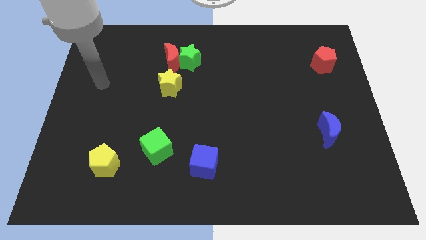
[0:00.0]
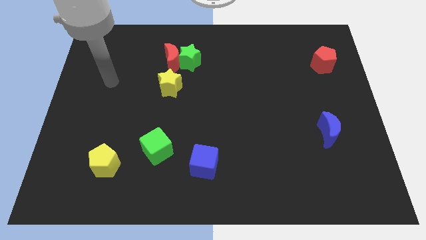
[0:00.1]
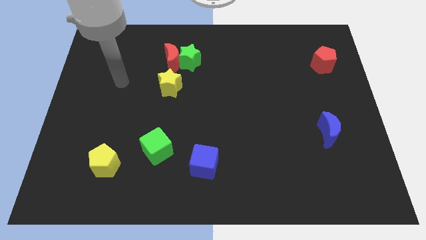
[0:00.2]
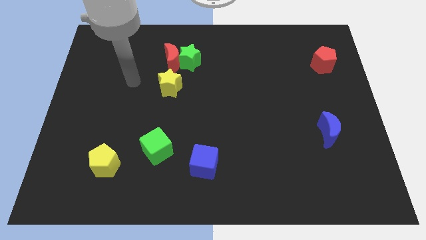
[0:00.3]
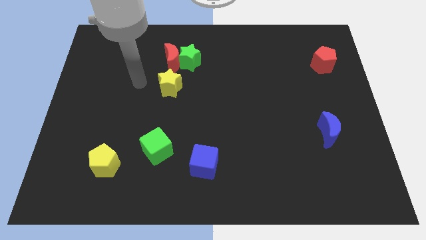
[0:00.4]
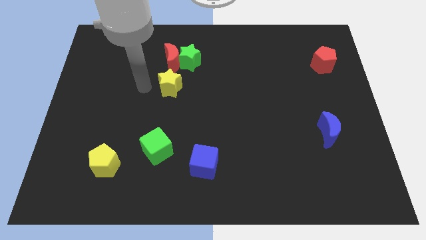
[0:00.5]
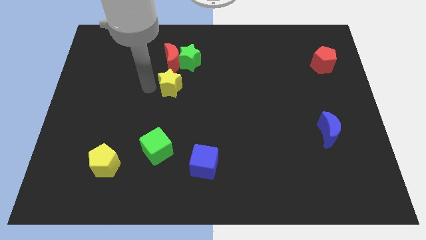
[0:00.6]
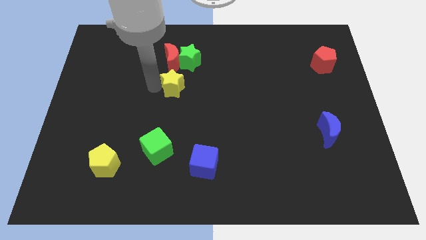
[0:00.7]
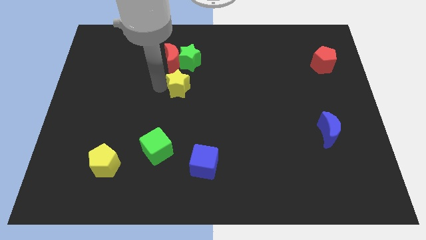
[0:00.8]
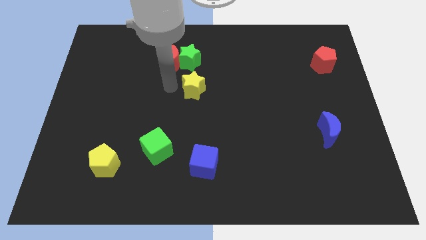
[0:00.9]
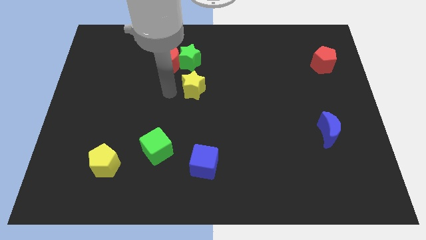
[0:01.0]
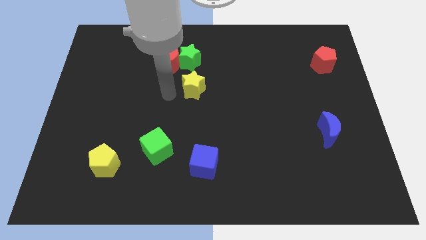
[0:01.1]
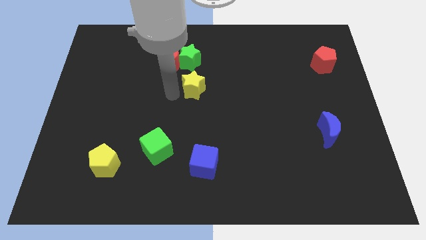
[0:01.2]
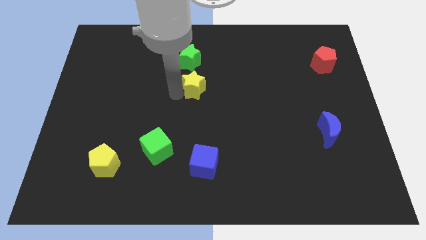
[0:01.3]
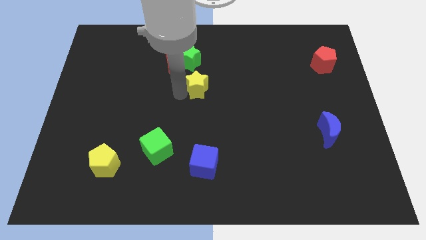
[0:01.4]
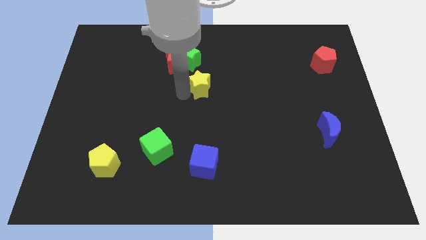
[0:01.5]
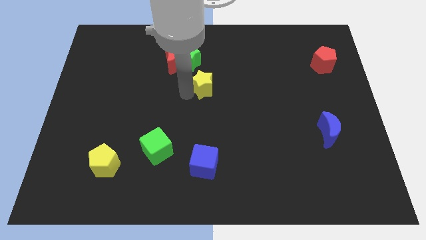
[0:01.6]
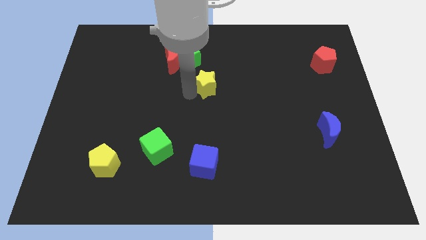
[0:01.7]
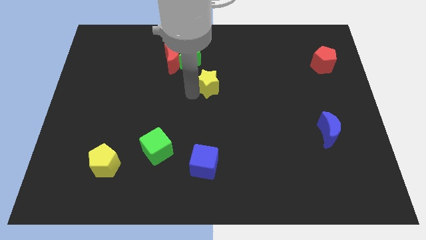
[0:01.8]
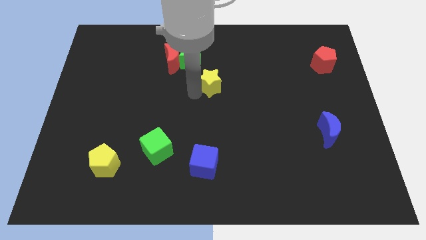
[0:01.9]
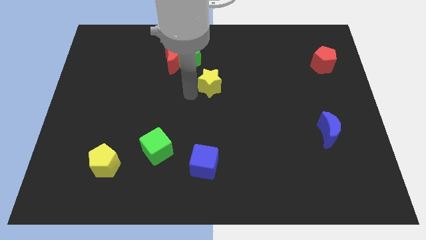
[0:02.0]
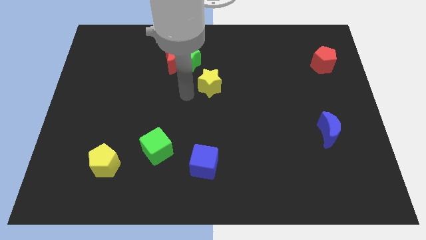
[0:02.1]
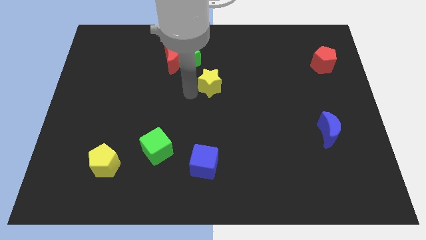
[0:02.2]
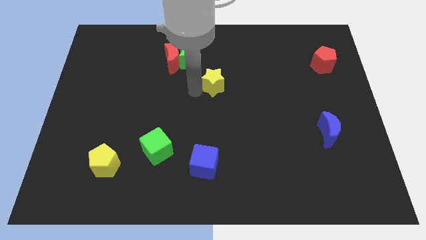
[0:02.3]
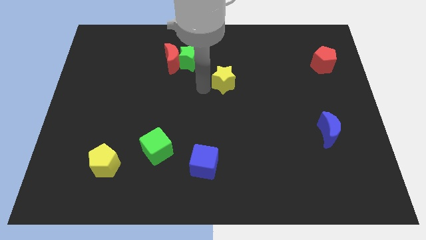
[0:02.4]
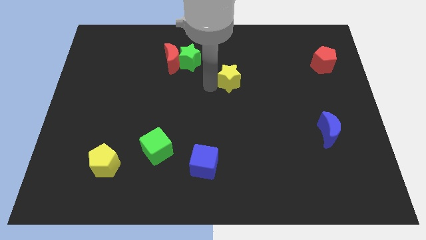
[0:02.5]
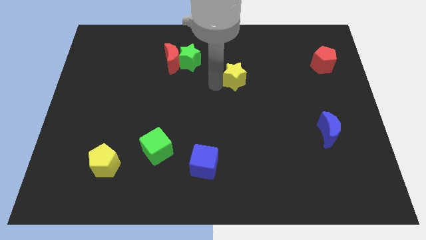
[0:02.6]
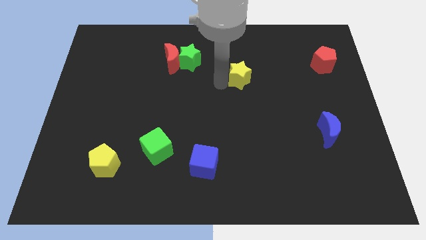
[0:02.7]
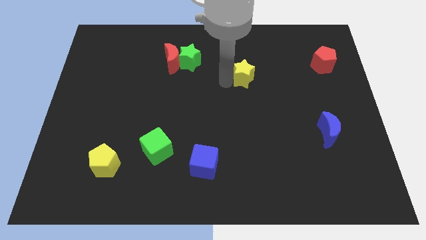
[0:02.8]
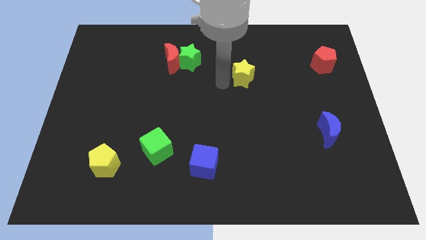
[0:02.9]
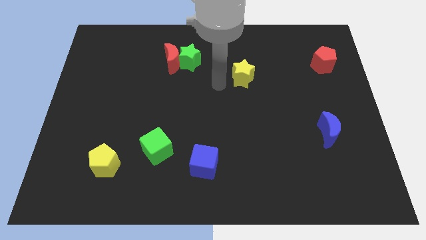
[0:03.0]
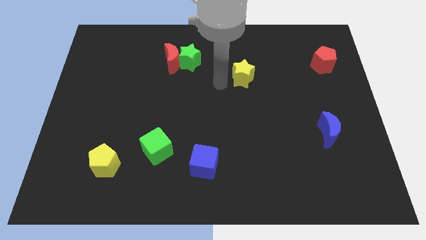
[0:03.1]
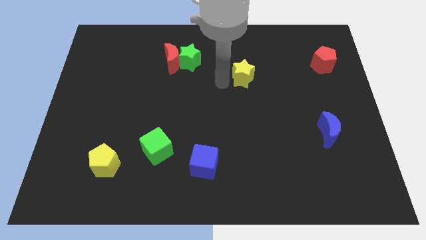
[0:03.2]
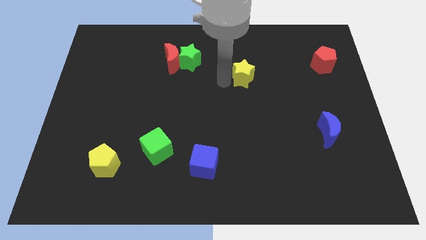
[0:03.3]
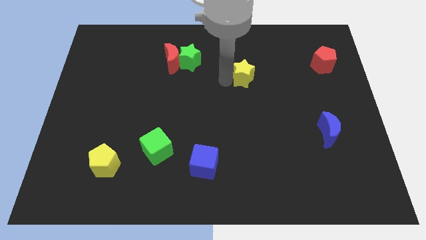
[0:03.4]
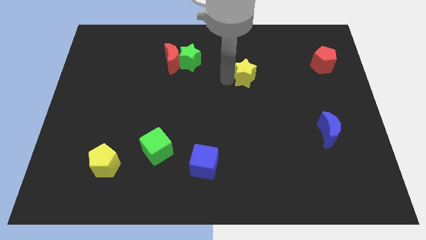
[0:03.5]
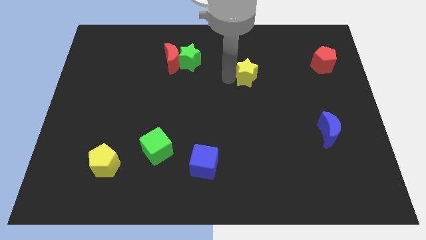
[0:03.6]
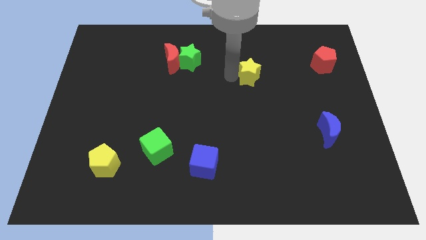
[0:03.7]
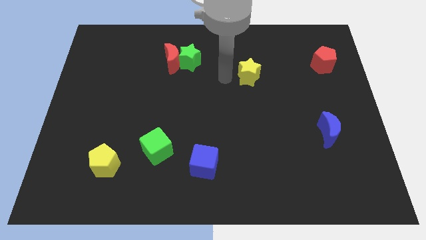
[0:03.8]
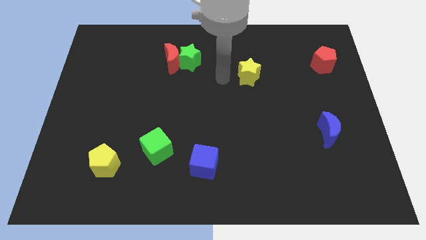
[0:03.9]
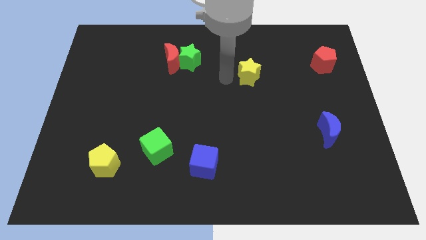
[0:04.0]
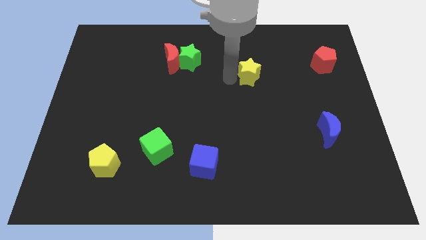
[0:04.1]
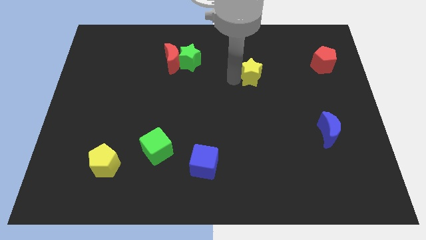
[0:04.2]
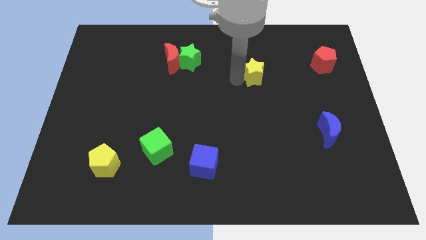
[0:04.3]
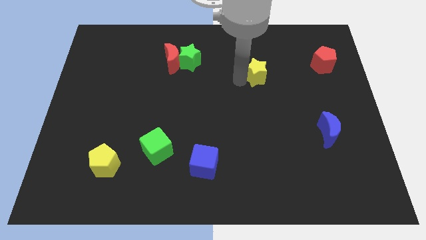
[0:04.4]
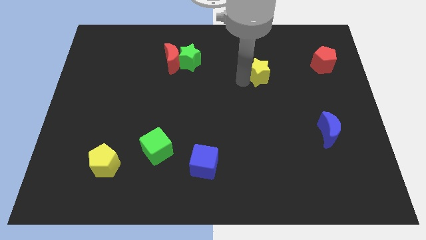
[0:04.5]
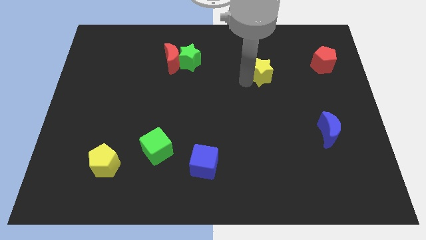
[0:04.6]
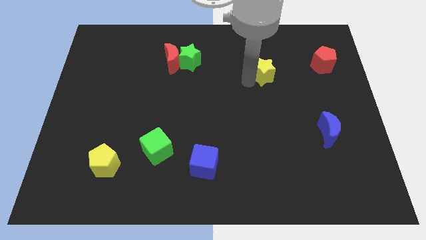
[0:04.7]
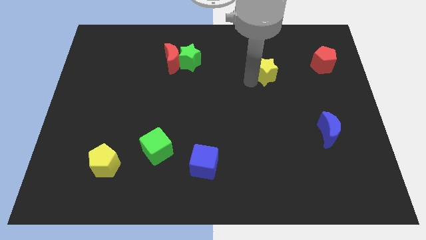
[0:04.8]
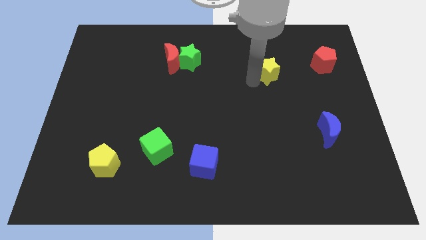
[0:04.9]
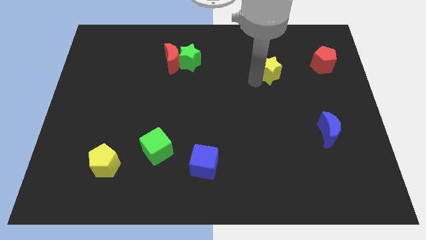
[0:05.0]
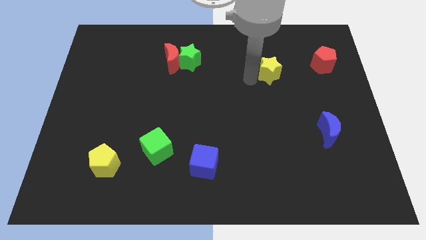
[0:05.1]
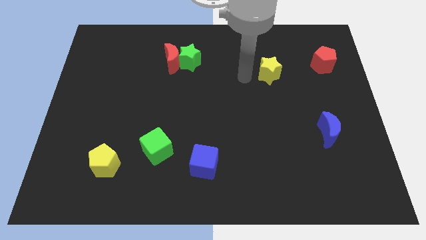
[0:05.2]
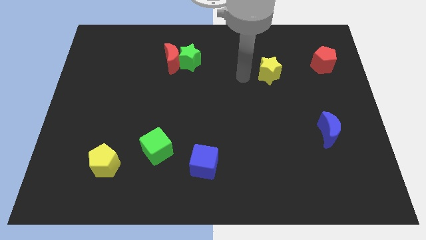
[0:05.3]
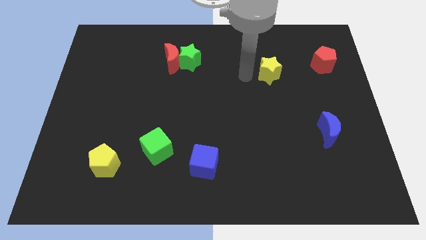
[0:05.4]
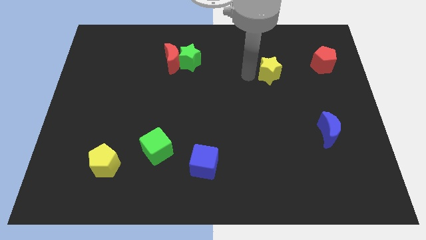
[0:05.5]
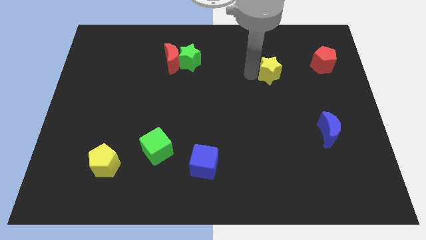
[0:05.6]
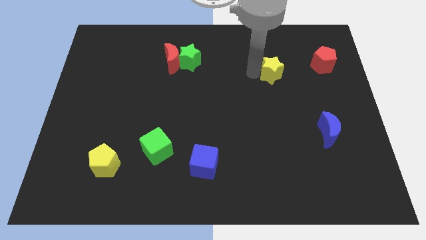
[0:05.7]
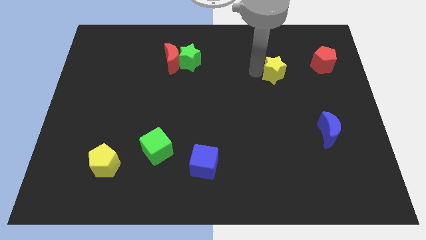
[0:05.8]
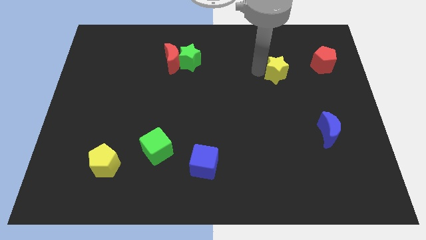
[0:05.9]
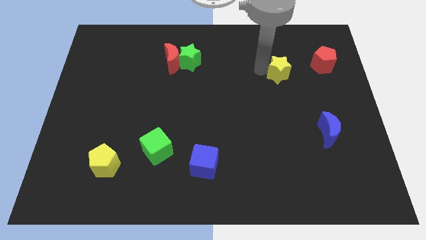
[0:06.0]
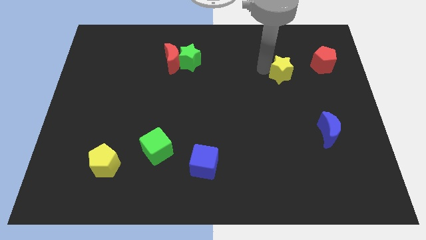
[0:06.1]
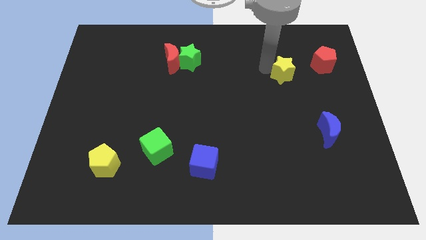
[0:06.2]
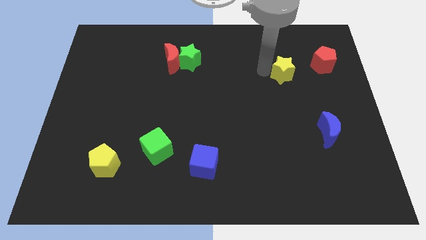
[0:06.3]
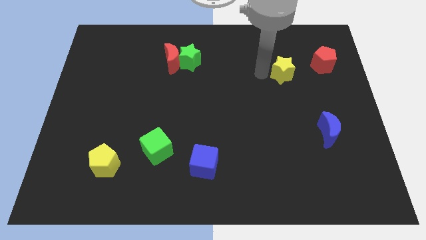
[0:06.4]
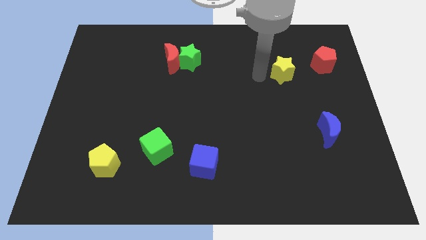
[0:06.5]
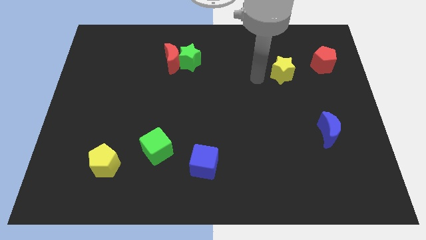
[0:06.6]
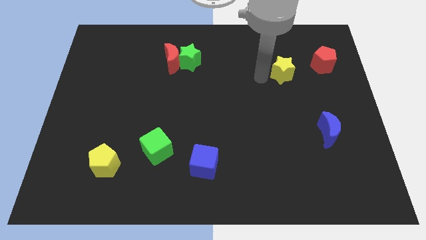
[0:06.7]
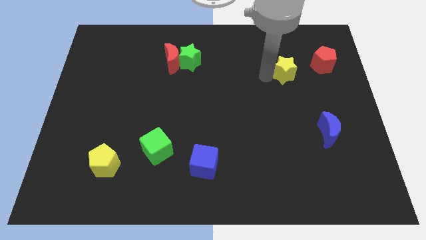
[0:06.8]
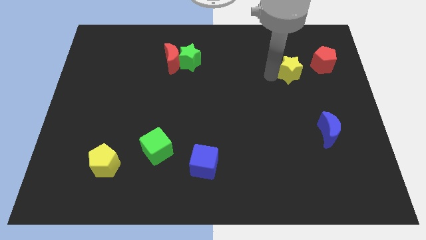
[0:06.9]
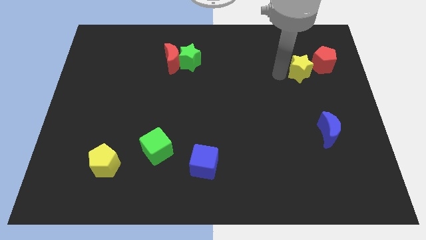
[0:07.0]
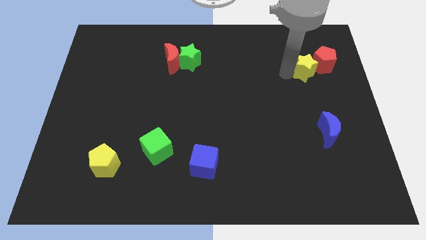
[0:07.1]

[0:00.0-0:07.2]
slide the yellow star close to the red pentagon

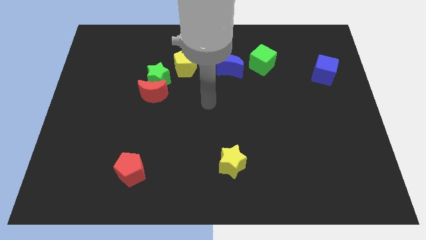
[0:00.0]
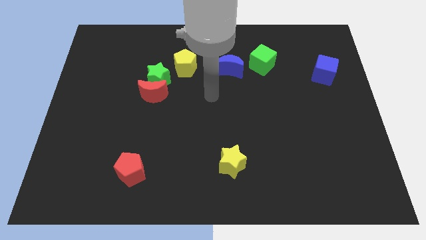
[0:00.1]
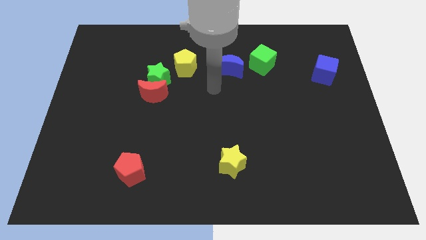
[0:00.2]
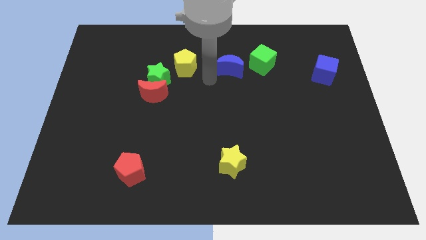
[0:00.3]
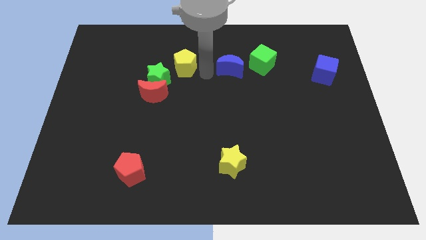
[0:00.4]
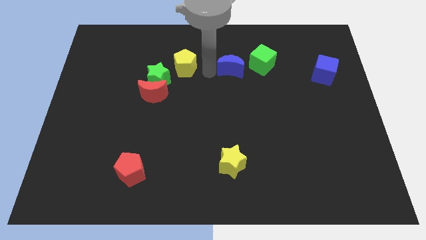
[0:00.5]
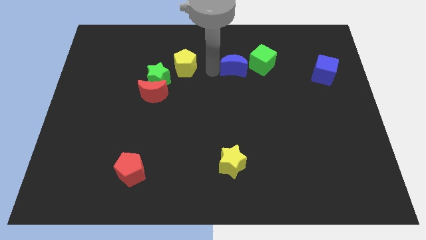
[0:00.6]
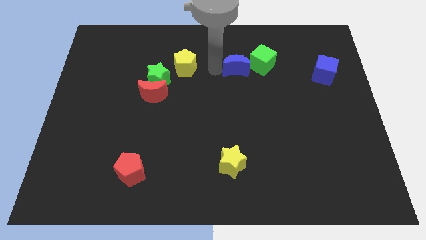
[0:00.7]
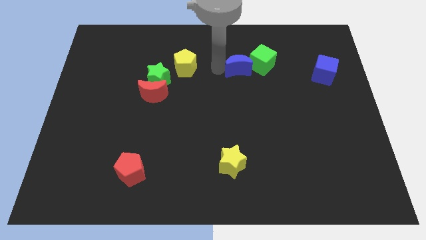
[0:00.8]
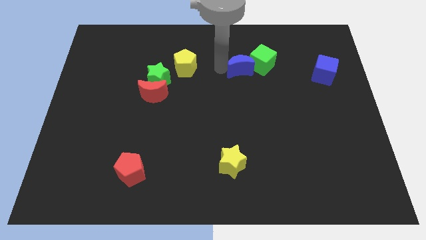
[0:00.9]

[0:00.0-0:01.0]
move the blue moon close to the green cube
